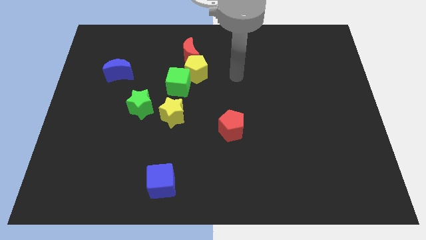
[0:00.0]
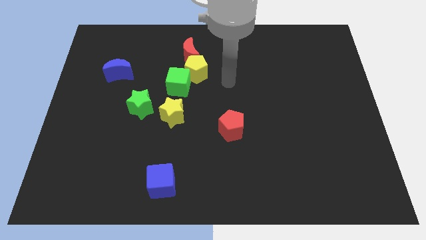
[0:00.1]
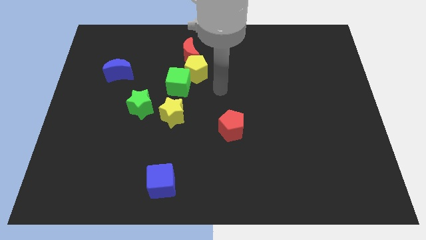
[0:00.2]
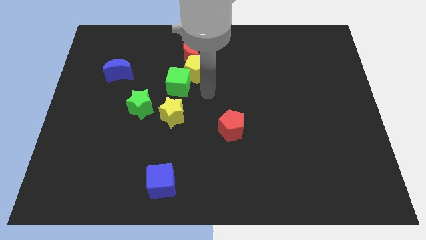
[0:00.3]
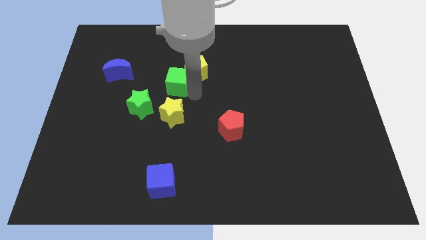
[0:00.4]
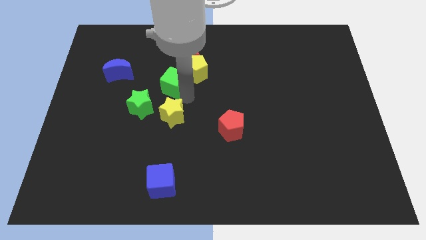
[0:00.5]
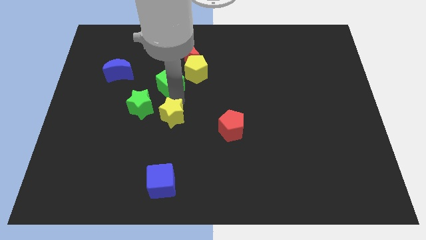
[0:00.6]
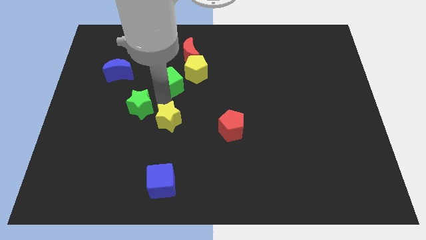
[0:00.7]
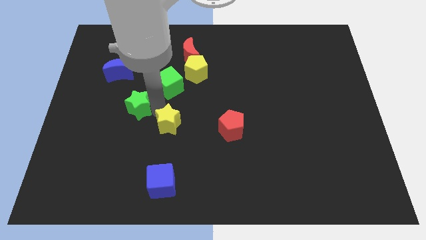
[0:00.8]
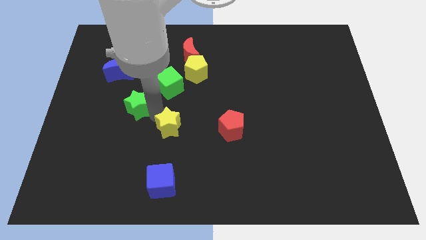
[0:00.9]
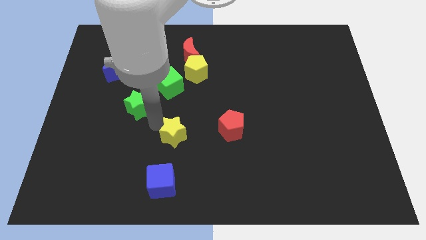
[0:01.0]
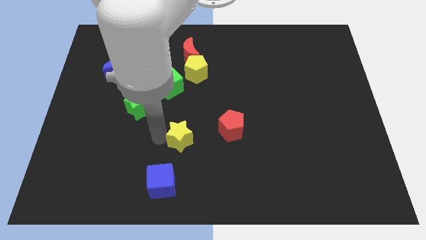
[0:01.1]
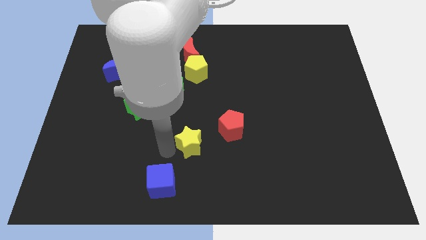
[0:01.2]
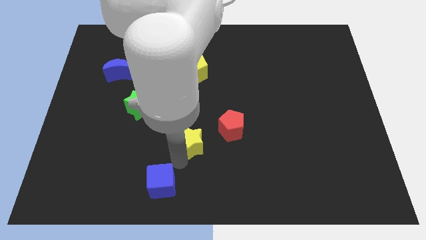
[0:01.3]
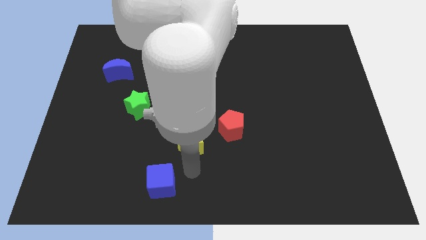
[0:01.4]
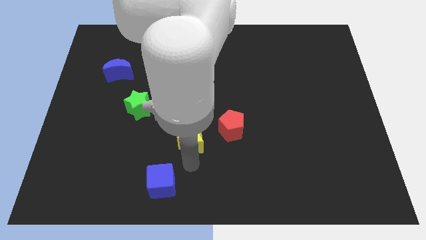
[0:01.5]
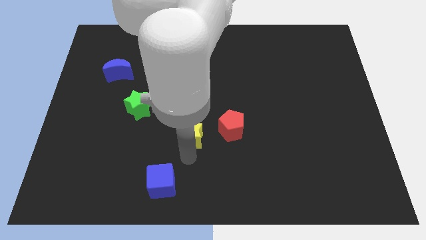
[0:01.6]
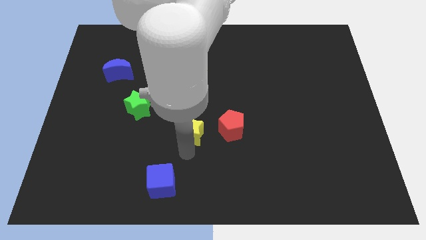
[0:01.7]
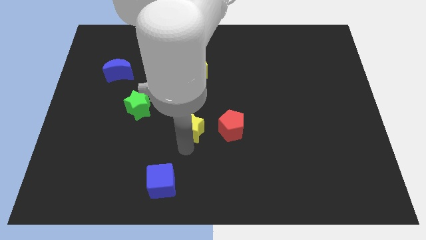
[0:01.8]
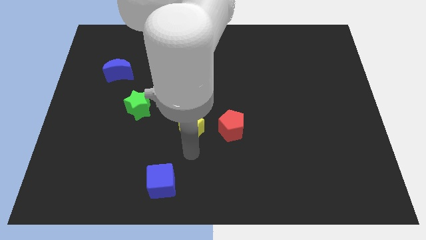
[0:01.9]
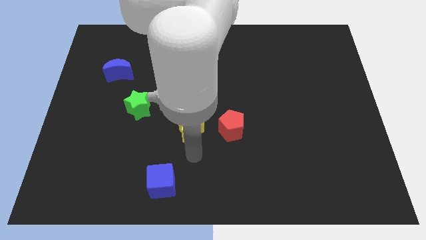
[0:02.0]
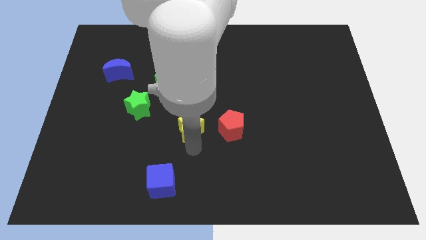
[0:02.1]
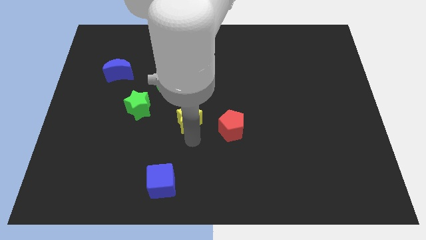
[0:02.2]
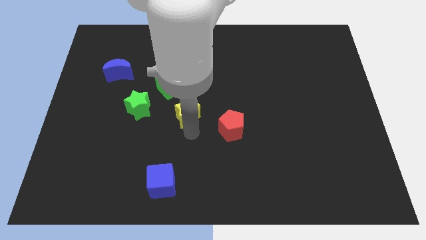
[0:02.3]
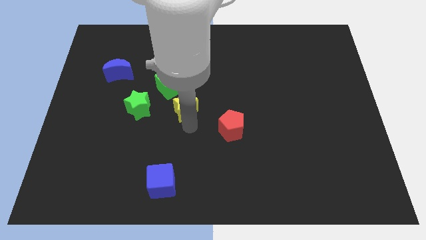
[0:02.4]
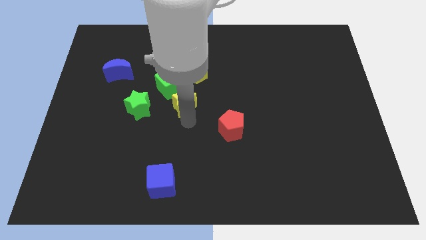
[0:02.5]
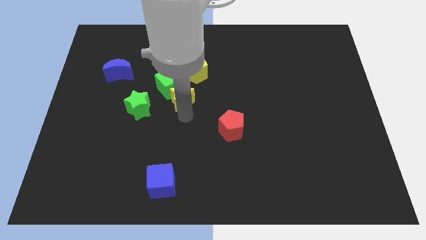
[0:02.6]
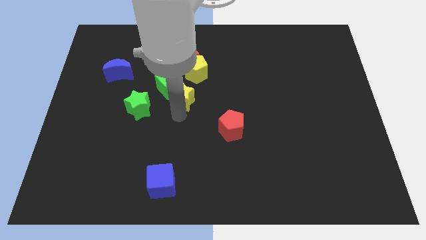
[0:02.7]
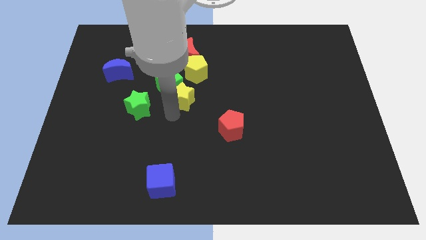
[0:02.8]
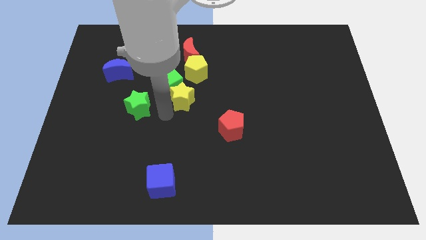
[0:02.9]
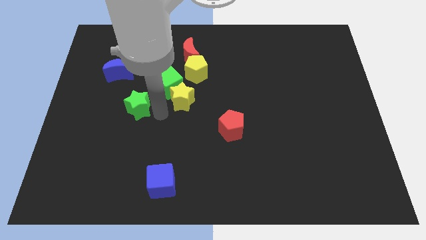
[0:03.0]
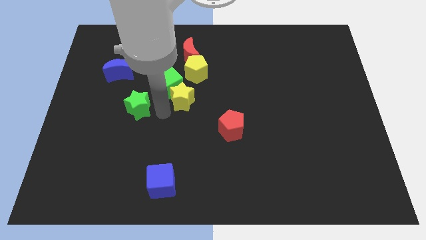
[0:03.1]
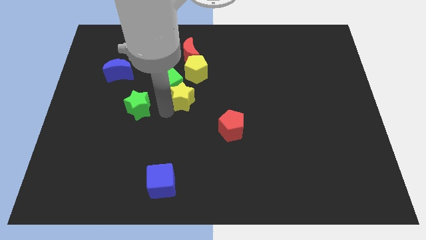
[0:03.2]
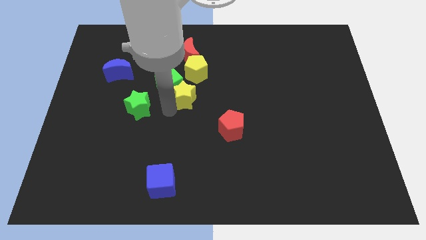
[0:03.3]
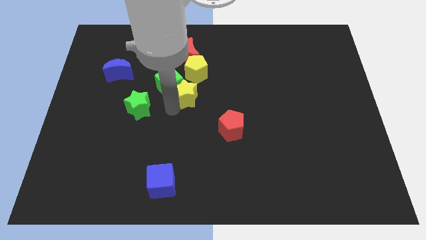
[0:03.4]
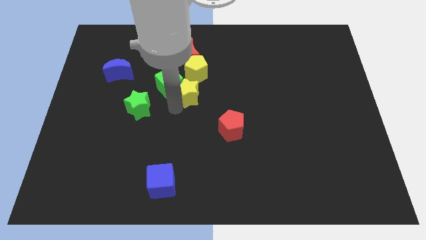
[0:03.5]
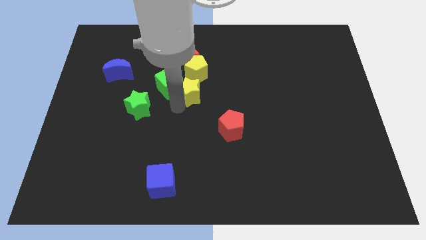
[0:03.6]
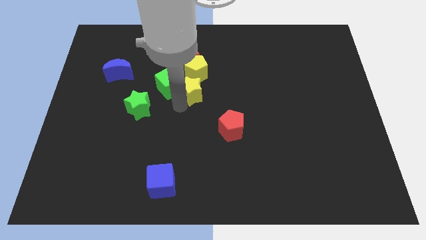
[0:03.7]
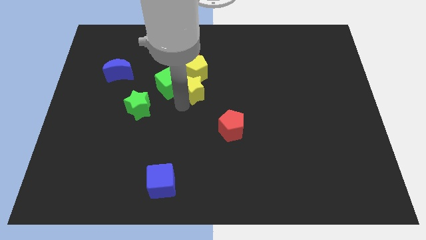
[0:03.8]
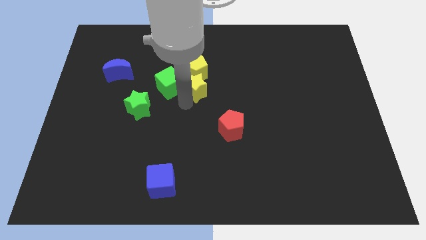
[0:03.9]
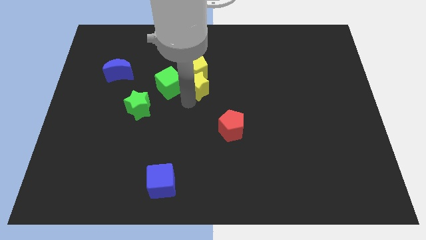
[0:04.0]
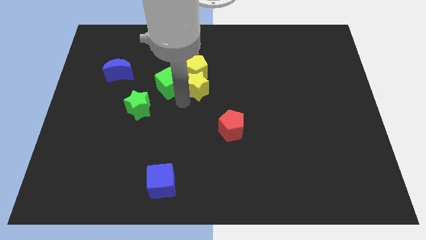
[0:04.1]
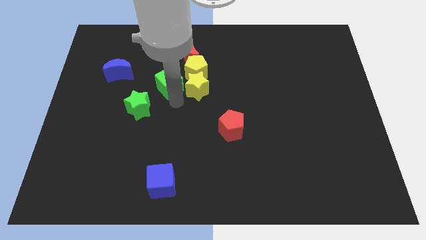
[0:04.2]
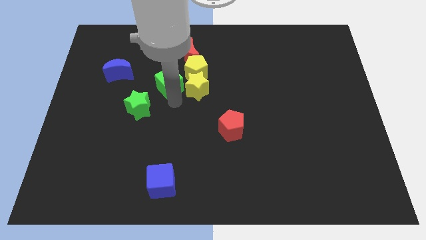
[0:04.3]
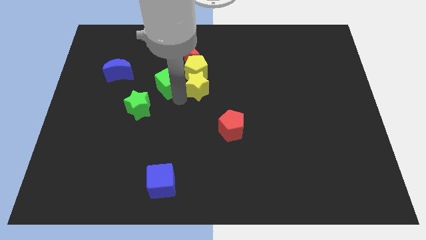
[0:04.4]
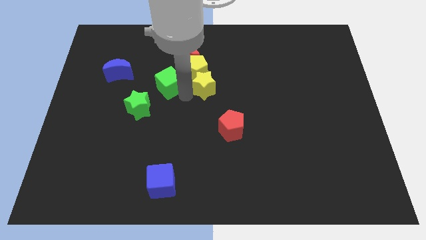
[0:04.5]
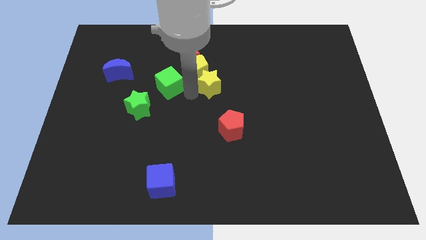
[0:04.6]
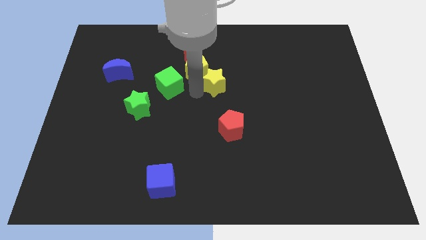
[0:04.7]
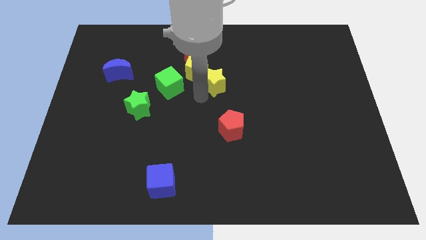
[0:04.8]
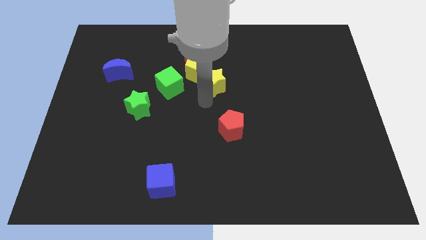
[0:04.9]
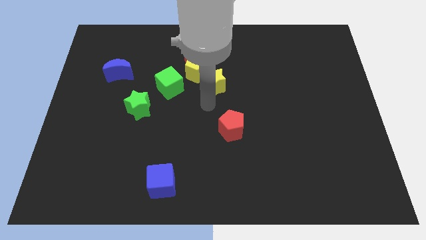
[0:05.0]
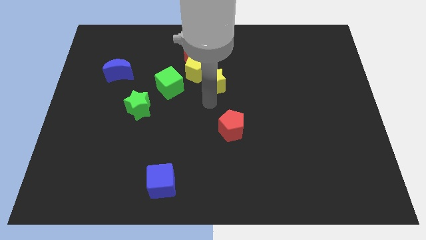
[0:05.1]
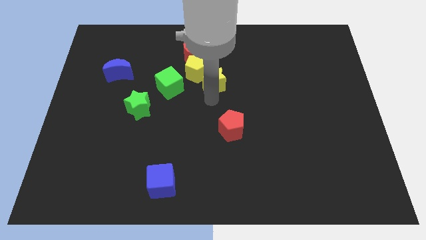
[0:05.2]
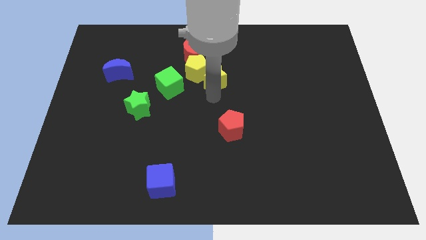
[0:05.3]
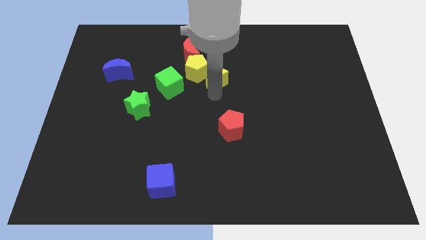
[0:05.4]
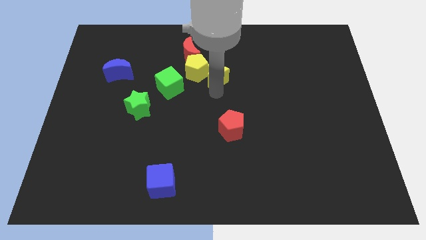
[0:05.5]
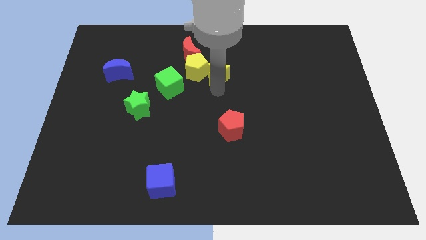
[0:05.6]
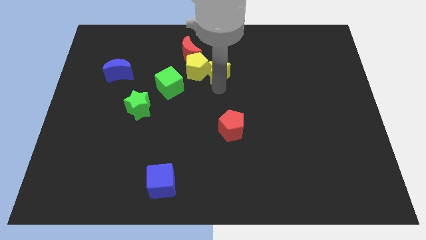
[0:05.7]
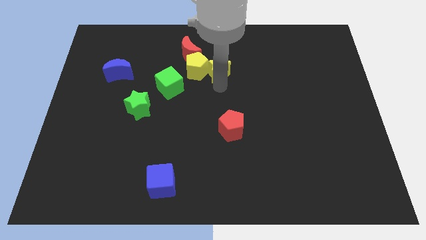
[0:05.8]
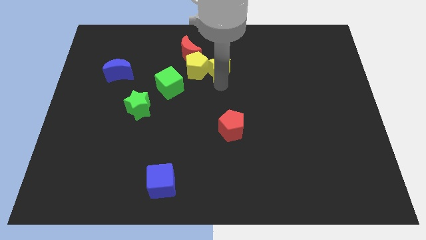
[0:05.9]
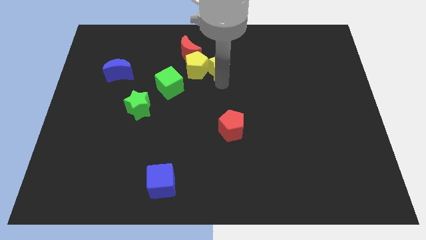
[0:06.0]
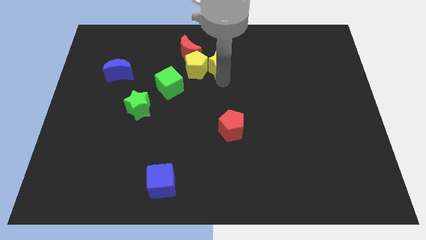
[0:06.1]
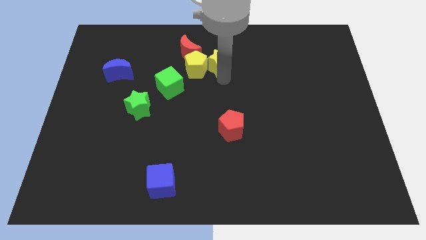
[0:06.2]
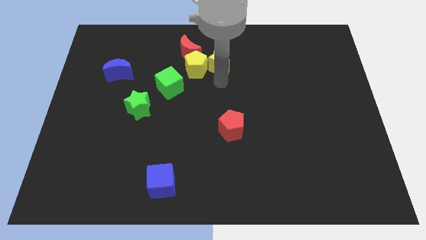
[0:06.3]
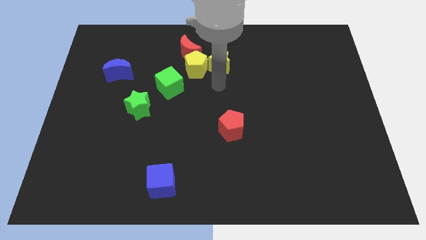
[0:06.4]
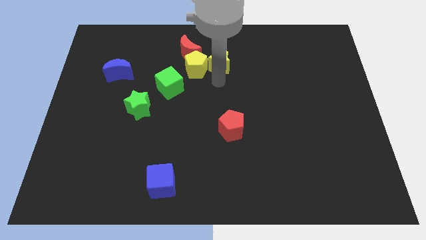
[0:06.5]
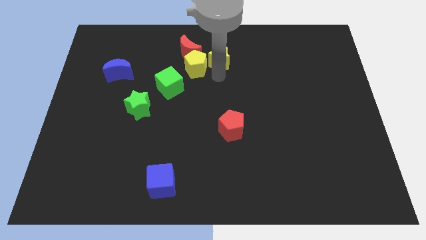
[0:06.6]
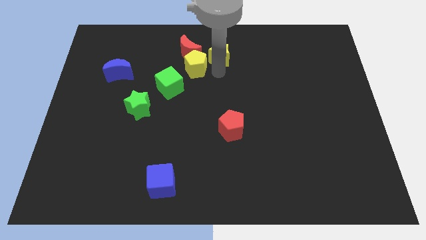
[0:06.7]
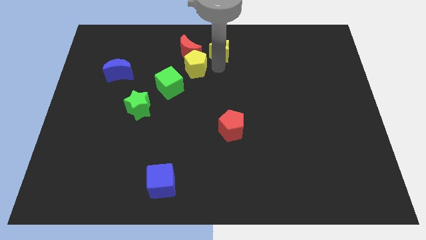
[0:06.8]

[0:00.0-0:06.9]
slide the yellow star to the top
